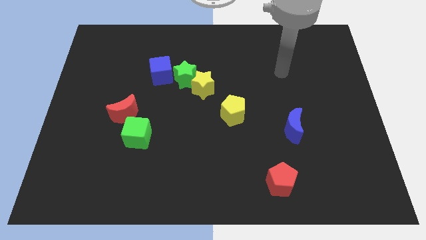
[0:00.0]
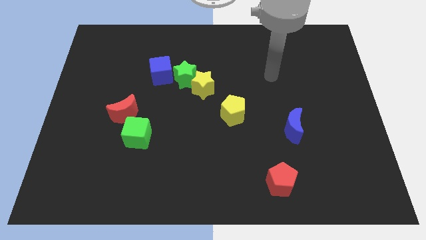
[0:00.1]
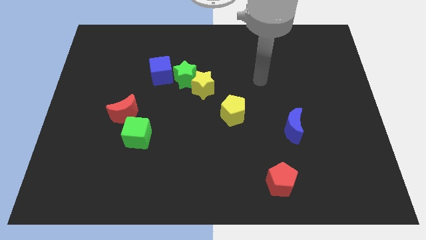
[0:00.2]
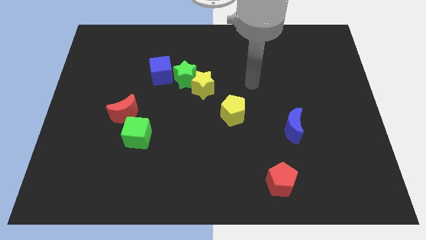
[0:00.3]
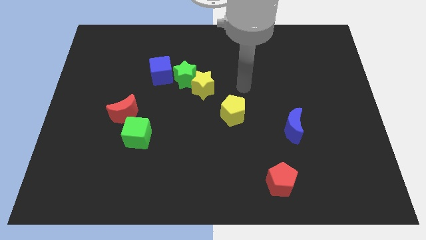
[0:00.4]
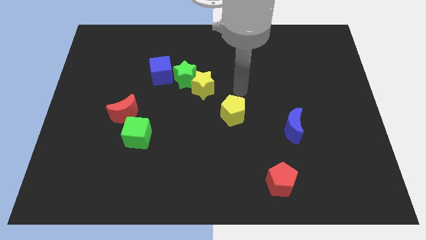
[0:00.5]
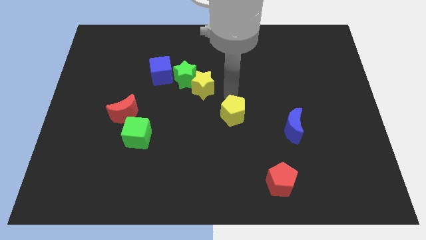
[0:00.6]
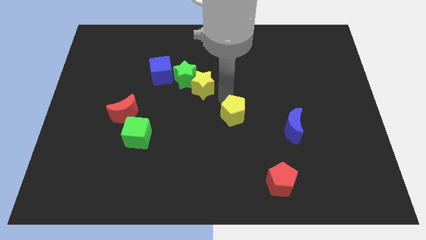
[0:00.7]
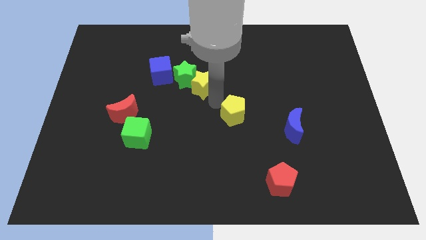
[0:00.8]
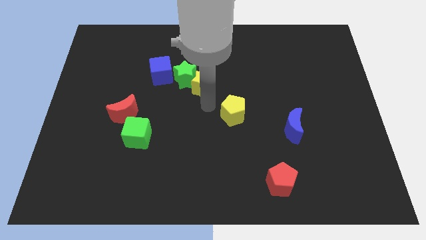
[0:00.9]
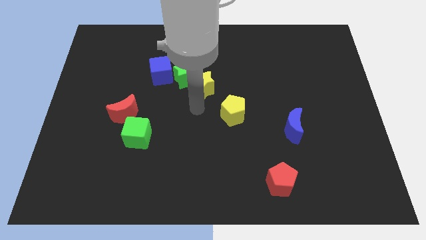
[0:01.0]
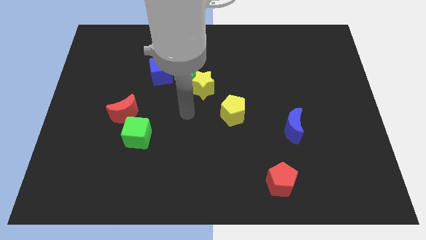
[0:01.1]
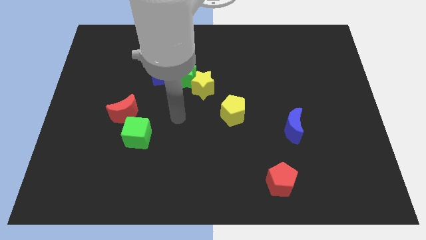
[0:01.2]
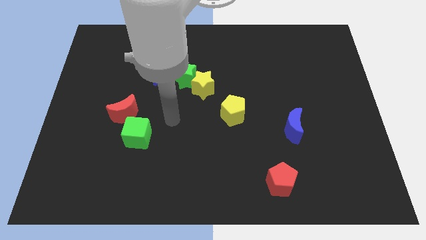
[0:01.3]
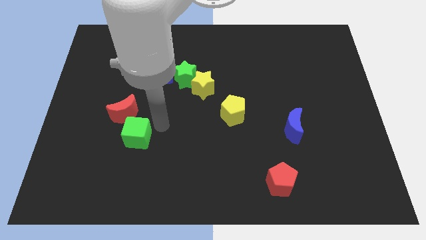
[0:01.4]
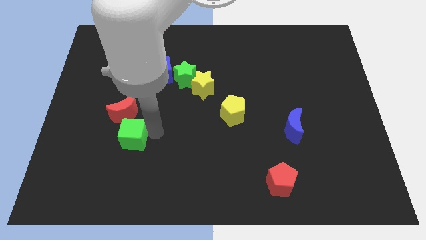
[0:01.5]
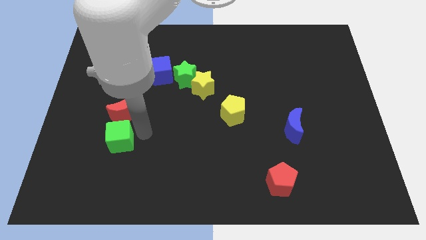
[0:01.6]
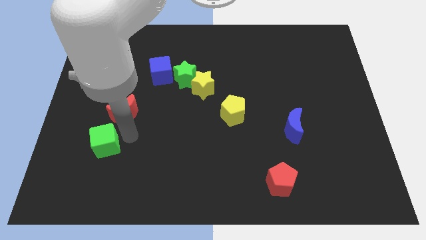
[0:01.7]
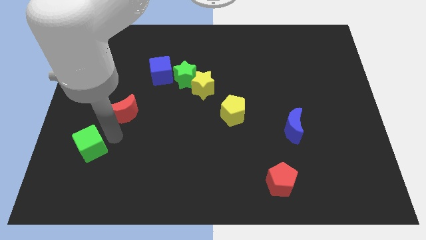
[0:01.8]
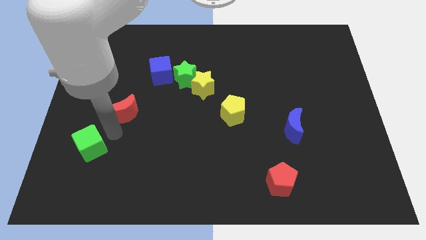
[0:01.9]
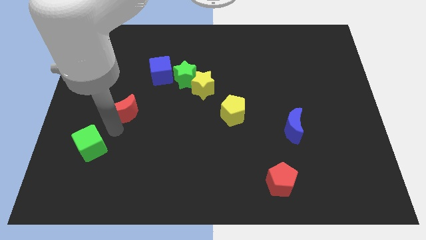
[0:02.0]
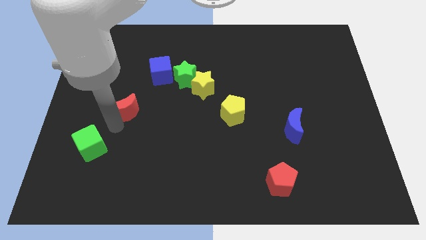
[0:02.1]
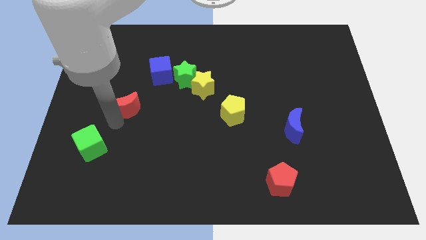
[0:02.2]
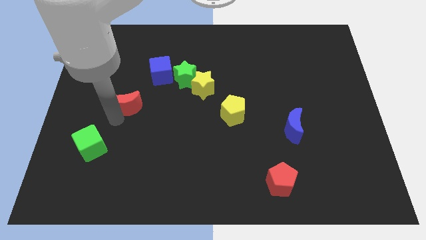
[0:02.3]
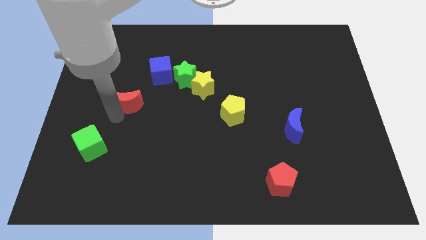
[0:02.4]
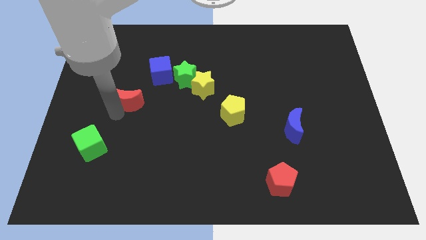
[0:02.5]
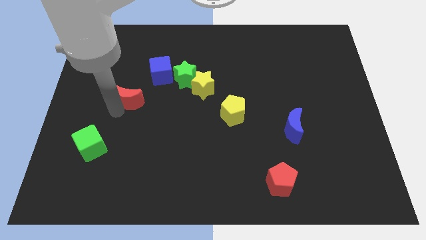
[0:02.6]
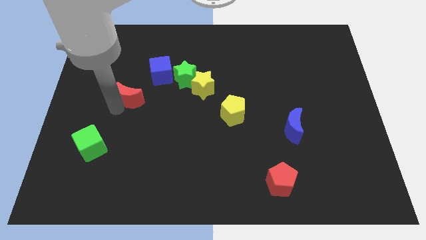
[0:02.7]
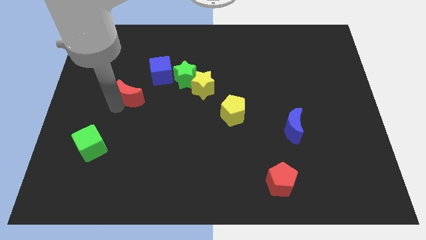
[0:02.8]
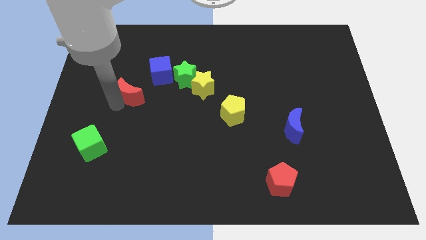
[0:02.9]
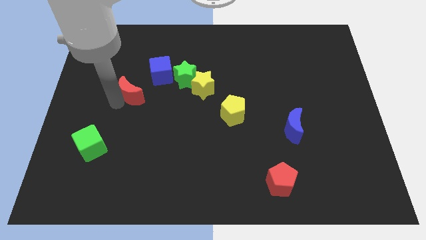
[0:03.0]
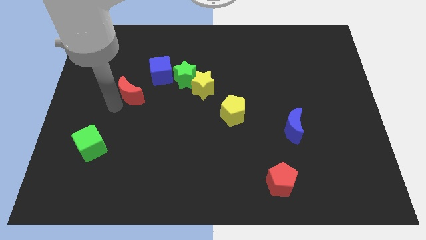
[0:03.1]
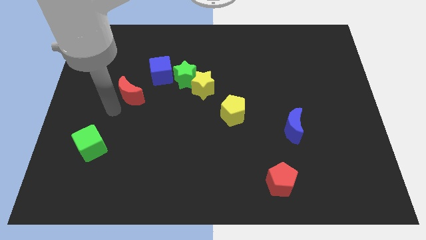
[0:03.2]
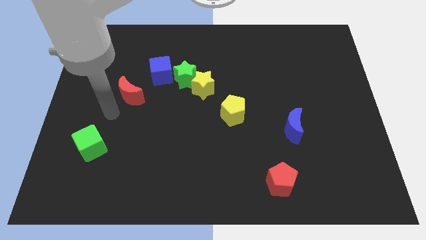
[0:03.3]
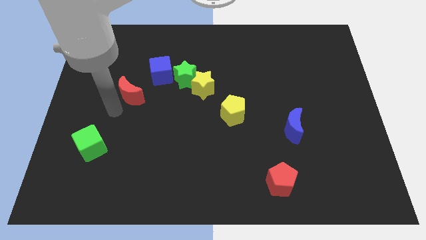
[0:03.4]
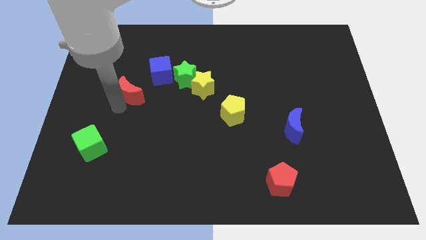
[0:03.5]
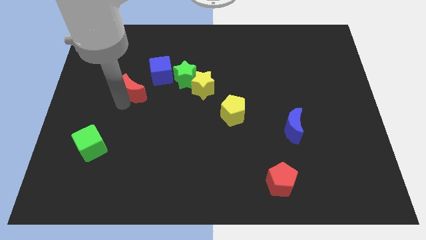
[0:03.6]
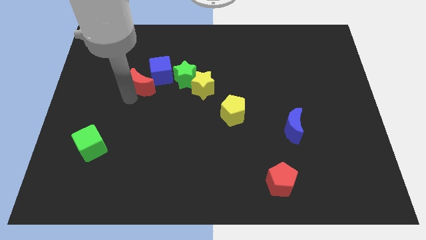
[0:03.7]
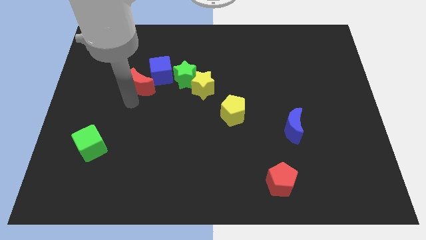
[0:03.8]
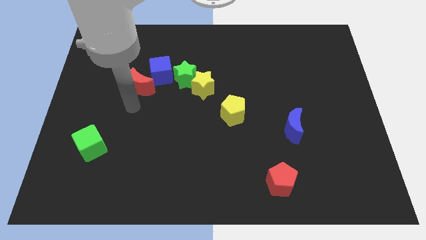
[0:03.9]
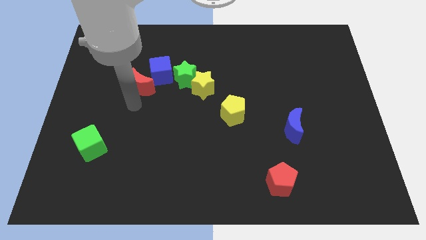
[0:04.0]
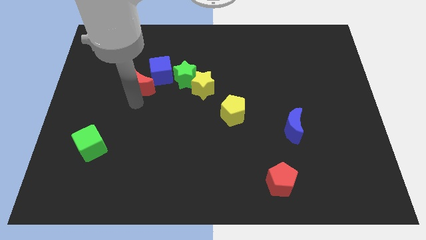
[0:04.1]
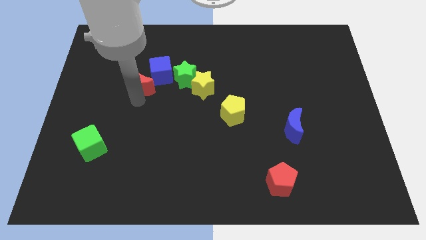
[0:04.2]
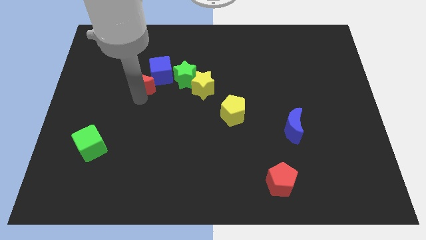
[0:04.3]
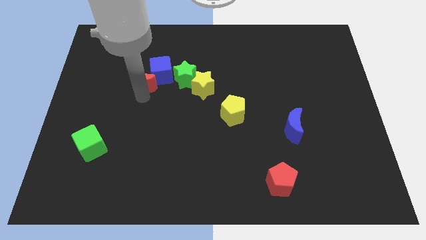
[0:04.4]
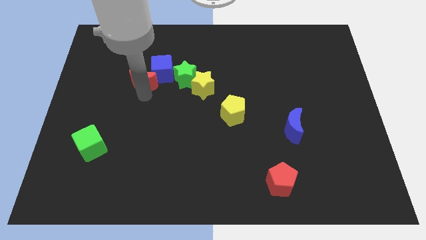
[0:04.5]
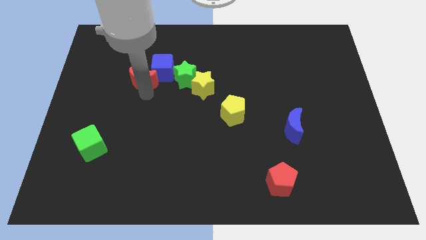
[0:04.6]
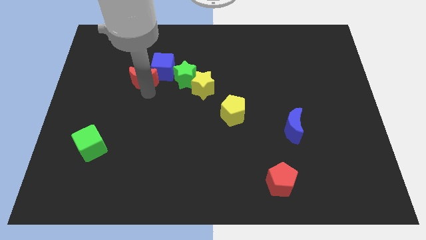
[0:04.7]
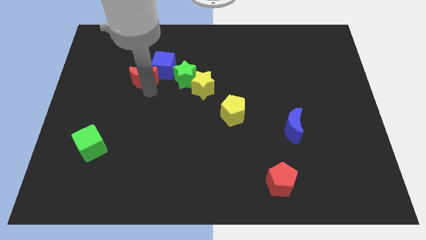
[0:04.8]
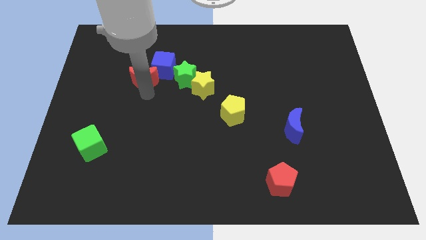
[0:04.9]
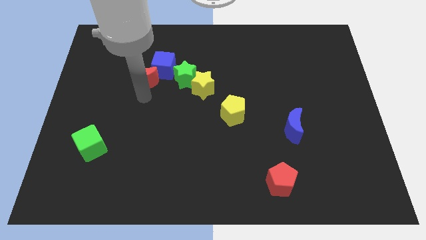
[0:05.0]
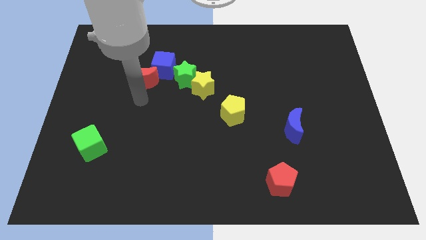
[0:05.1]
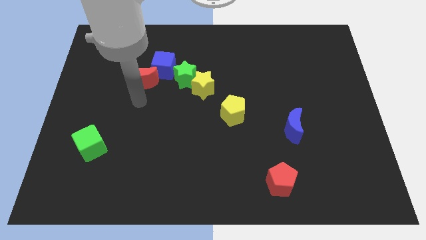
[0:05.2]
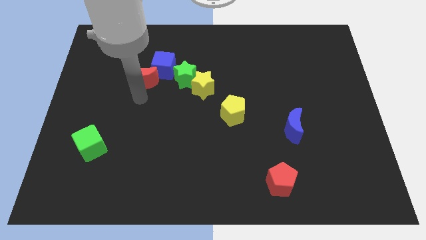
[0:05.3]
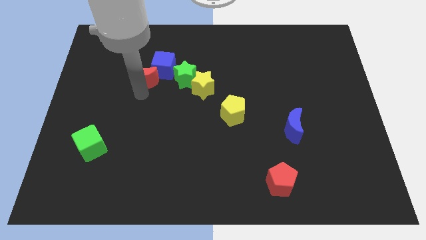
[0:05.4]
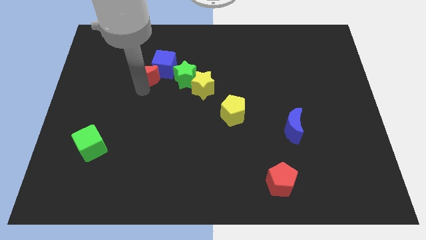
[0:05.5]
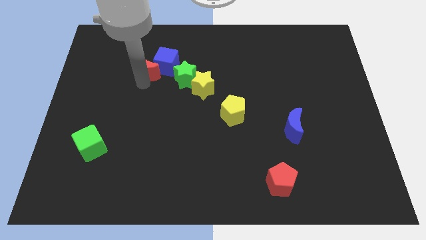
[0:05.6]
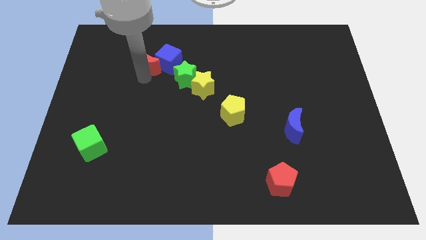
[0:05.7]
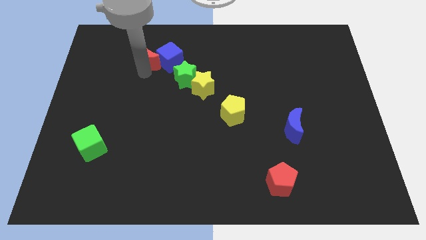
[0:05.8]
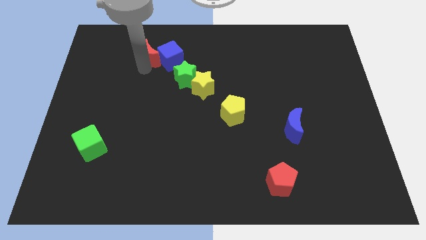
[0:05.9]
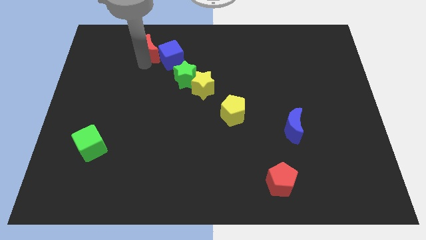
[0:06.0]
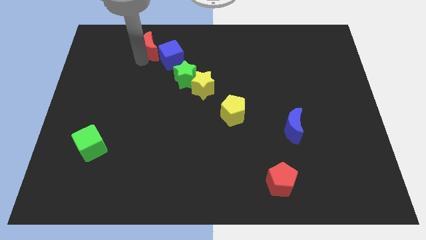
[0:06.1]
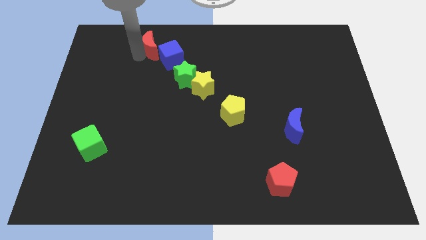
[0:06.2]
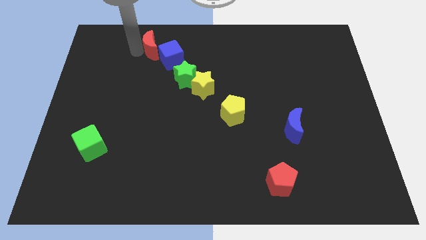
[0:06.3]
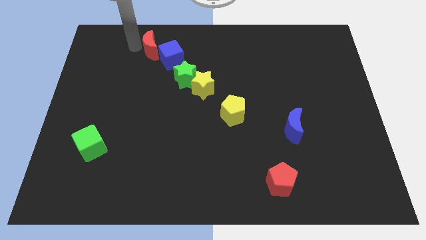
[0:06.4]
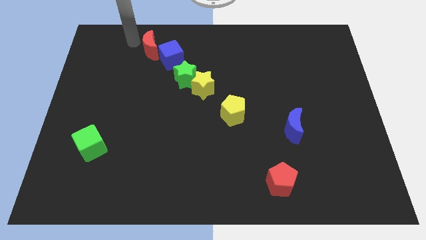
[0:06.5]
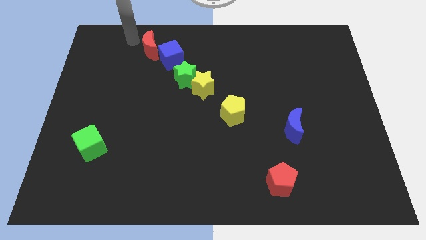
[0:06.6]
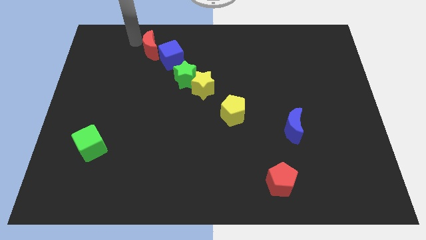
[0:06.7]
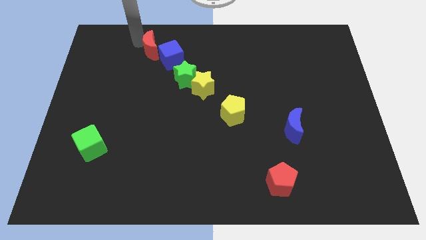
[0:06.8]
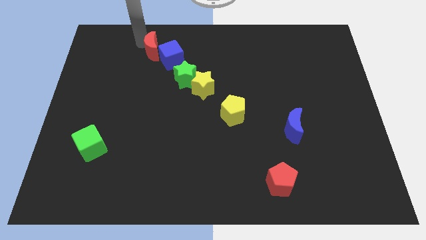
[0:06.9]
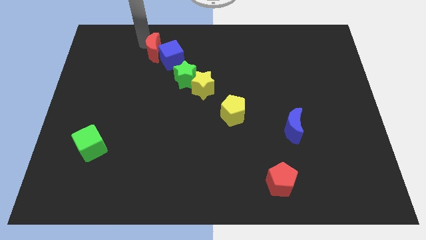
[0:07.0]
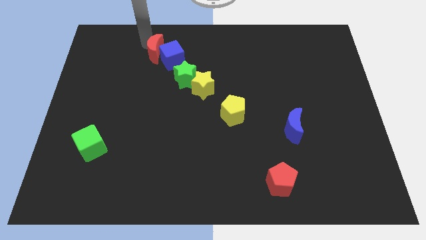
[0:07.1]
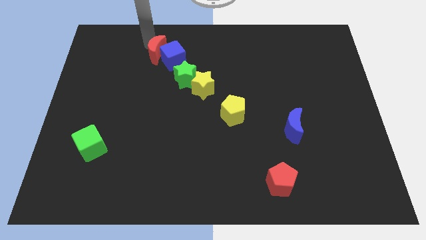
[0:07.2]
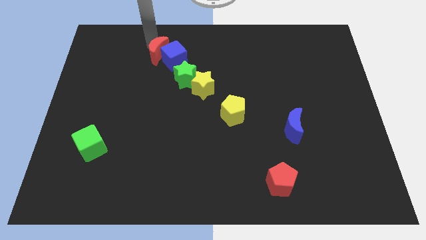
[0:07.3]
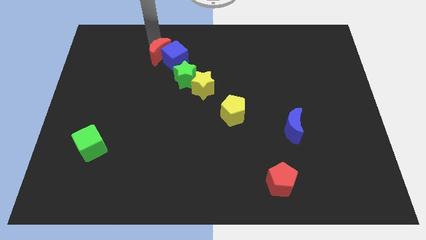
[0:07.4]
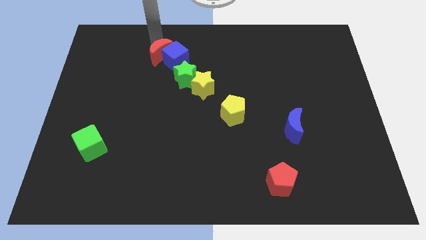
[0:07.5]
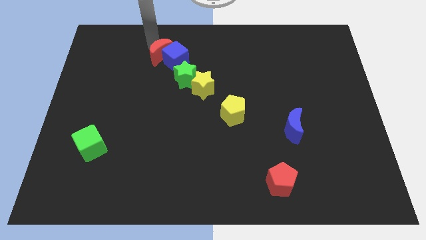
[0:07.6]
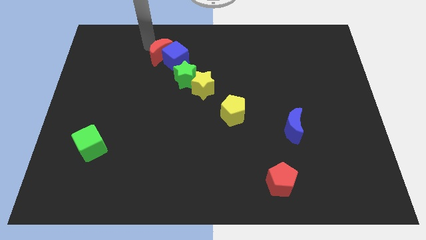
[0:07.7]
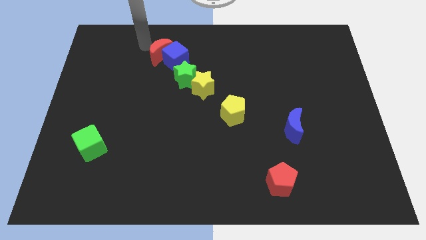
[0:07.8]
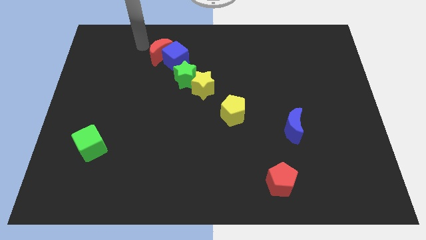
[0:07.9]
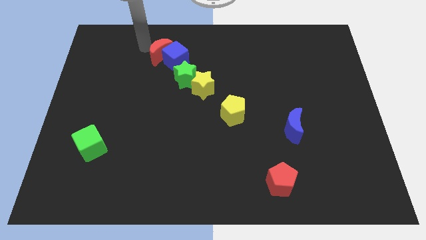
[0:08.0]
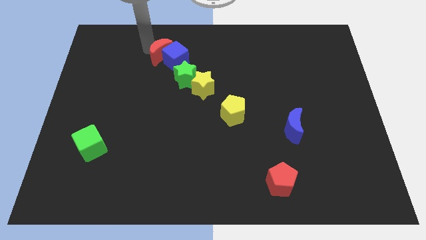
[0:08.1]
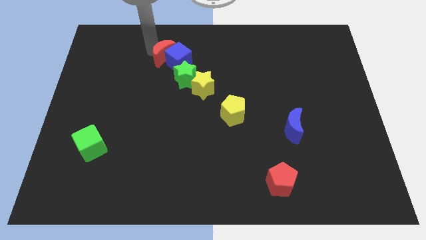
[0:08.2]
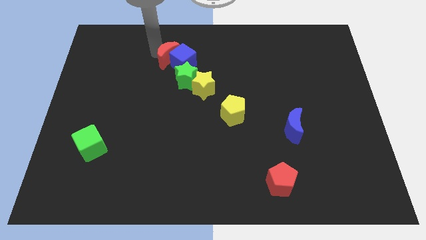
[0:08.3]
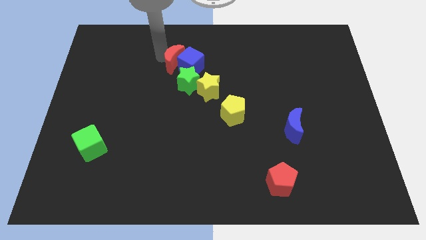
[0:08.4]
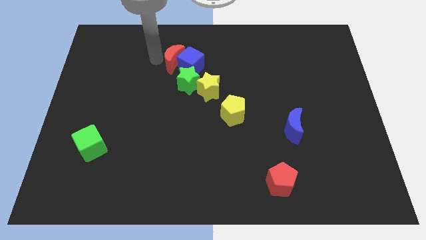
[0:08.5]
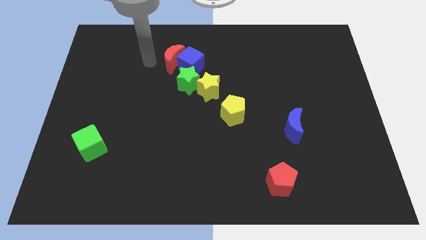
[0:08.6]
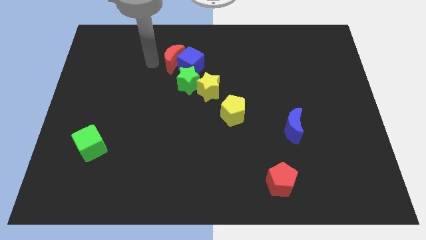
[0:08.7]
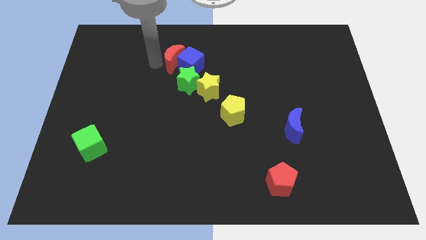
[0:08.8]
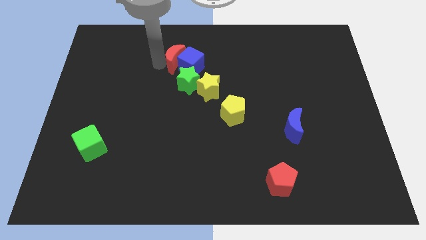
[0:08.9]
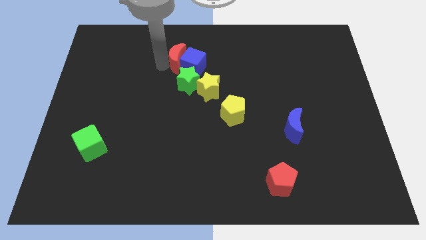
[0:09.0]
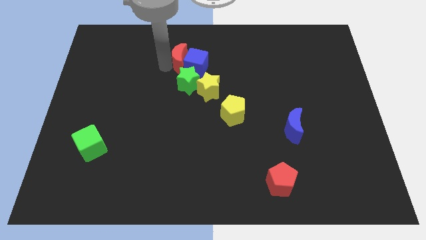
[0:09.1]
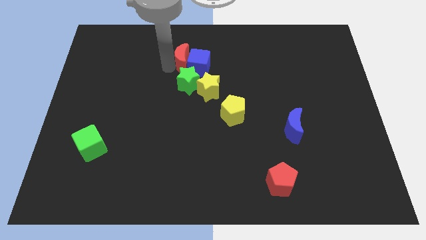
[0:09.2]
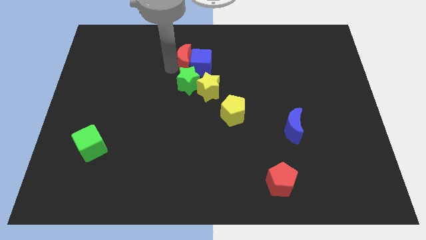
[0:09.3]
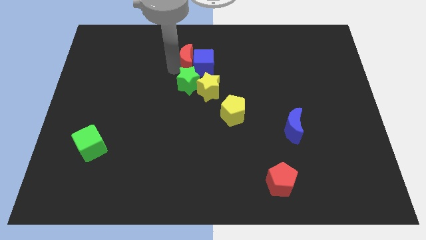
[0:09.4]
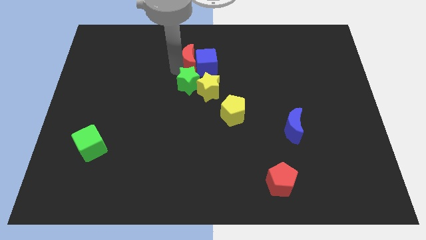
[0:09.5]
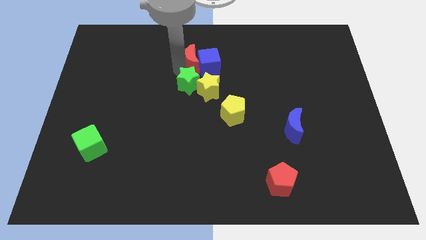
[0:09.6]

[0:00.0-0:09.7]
slide the red moon above the yellow star
